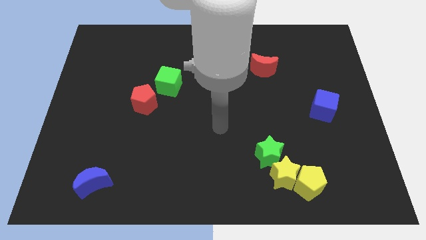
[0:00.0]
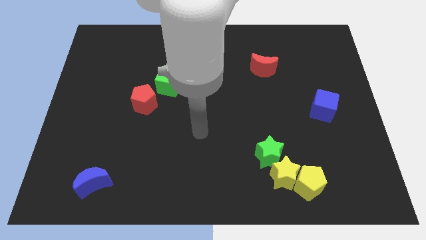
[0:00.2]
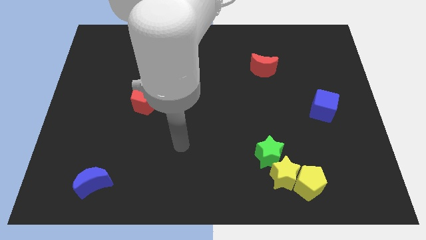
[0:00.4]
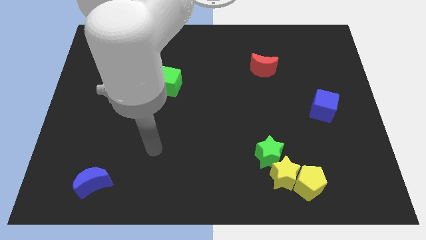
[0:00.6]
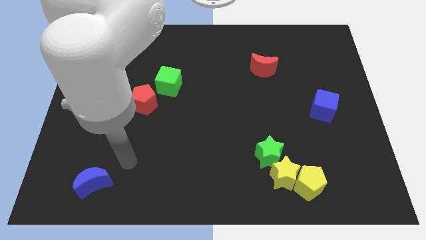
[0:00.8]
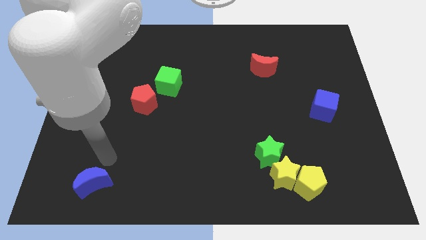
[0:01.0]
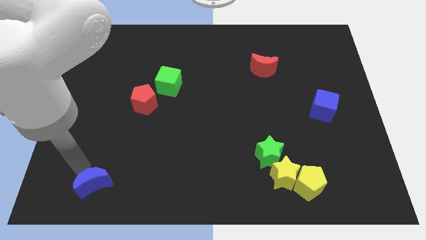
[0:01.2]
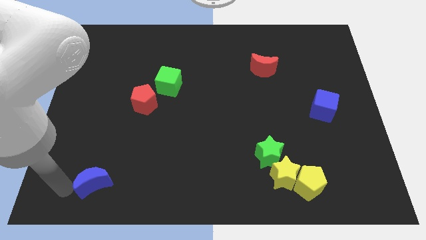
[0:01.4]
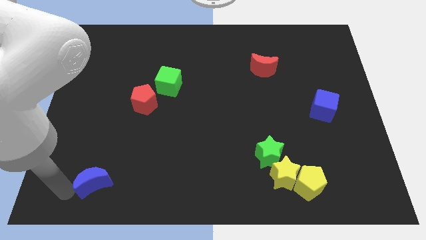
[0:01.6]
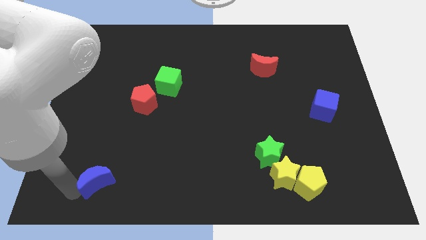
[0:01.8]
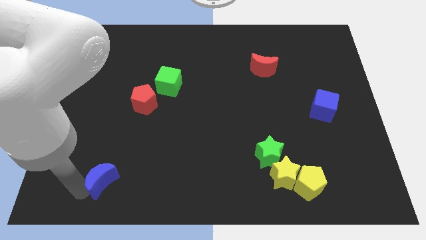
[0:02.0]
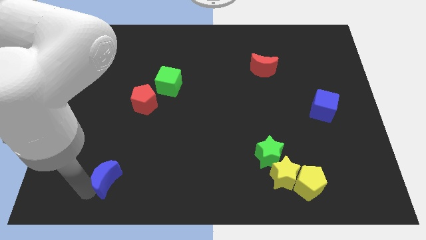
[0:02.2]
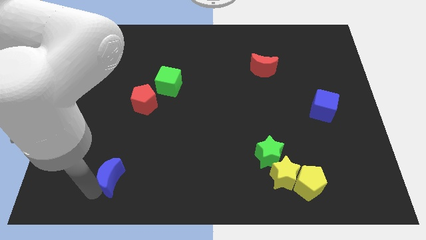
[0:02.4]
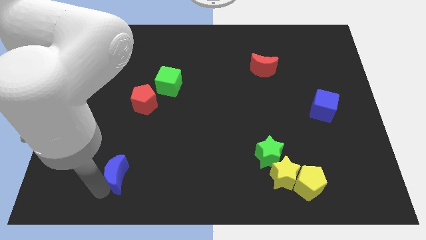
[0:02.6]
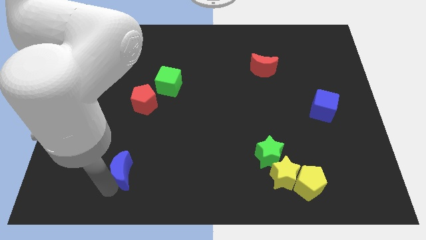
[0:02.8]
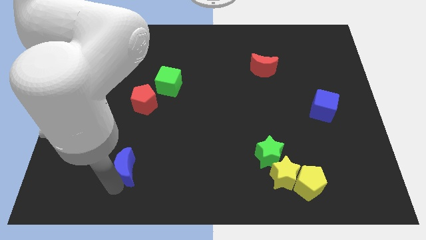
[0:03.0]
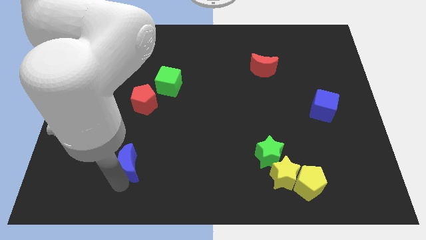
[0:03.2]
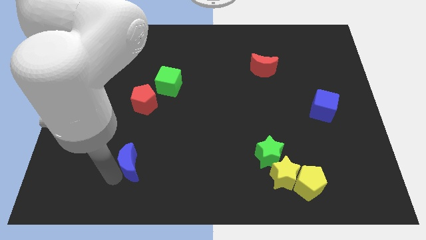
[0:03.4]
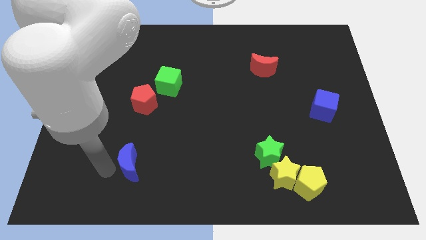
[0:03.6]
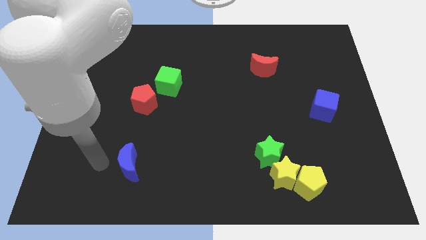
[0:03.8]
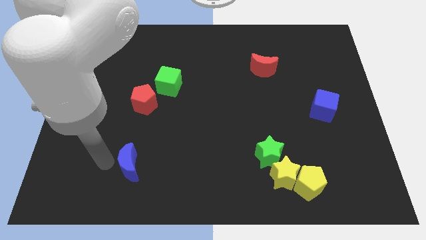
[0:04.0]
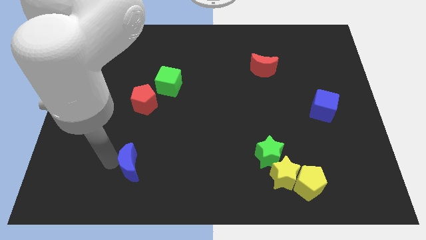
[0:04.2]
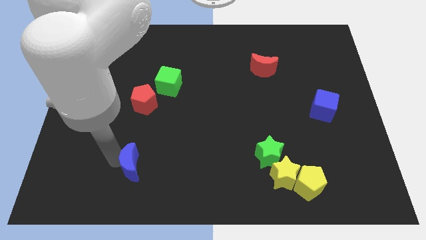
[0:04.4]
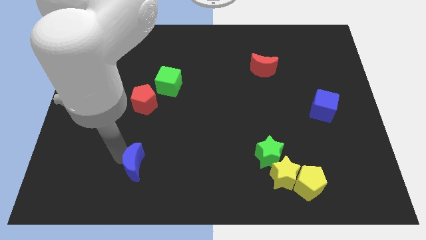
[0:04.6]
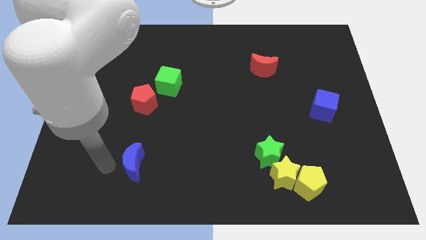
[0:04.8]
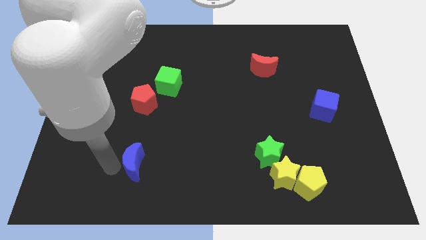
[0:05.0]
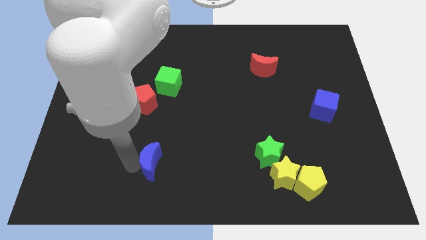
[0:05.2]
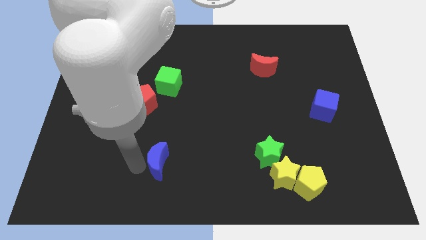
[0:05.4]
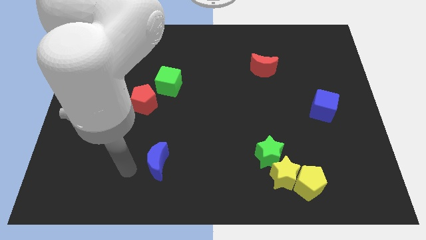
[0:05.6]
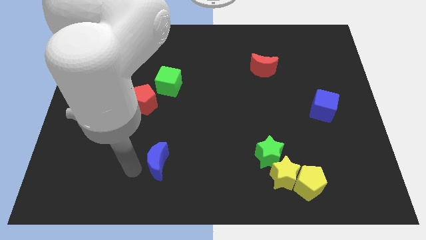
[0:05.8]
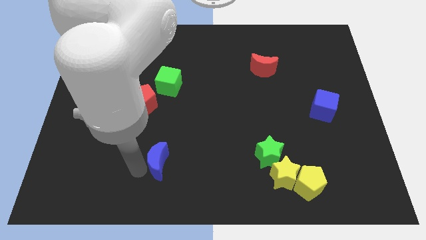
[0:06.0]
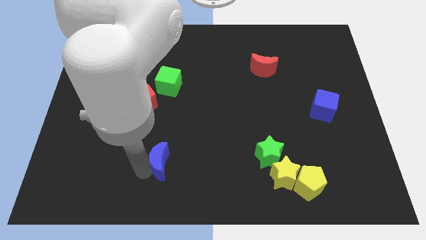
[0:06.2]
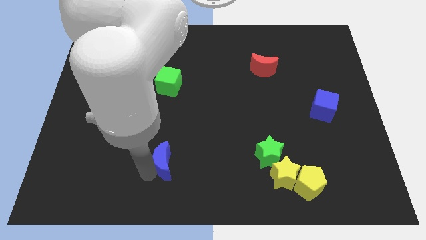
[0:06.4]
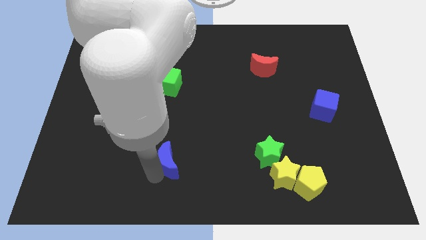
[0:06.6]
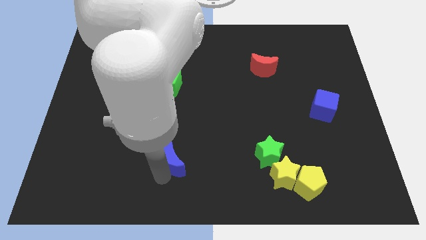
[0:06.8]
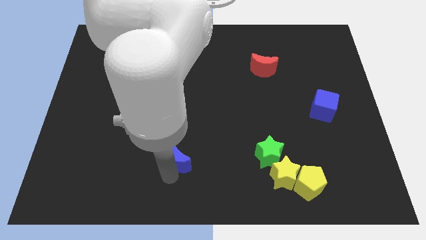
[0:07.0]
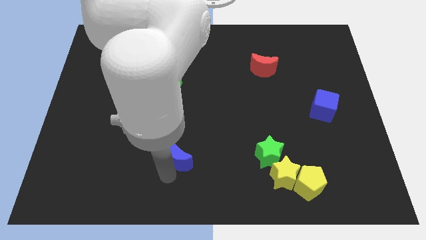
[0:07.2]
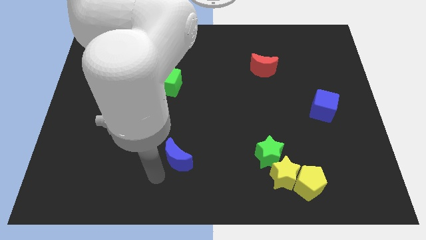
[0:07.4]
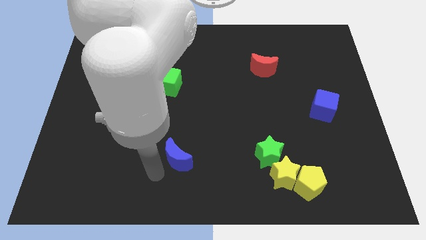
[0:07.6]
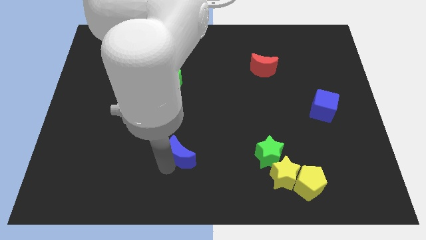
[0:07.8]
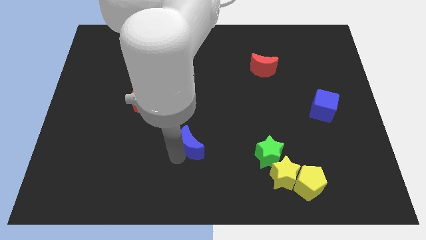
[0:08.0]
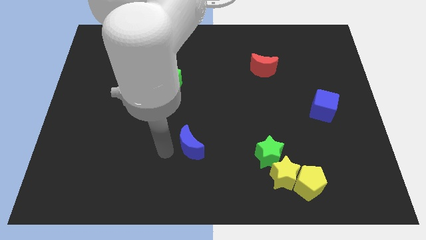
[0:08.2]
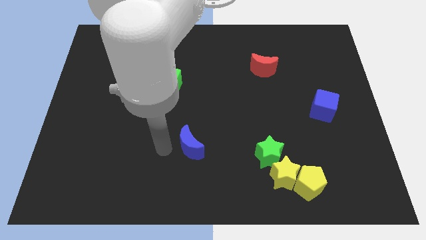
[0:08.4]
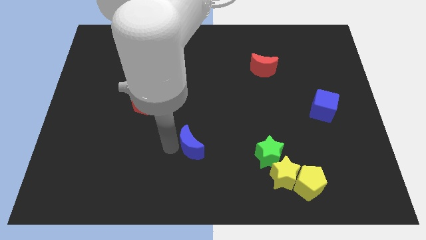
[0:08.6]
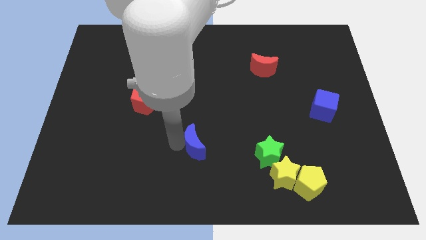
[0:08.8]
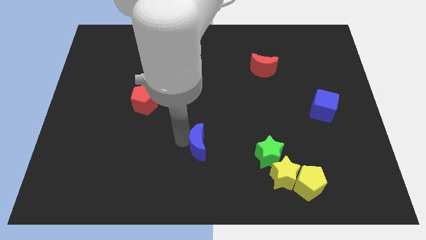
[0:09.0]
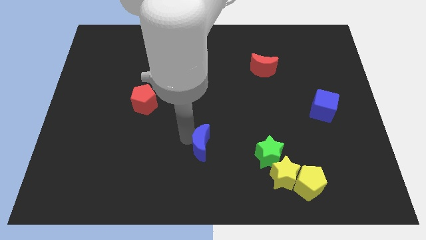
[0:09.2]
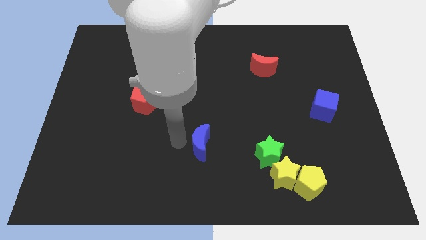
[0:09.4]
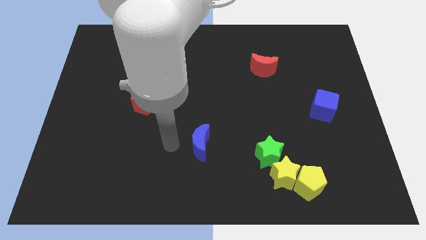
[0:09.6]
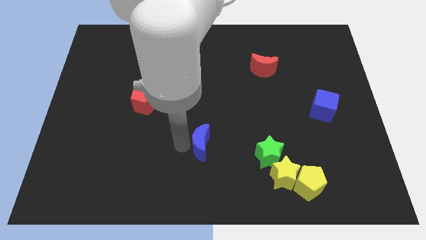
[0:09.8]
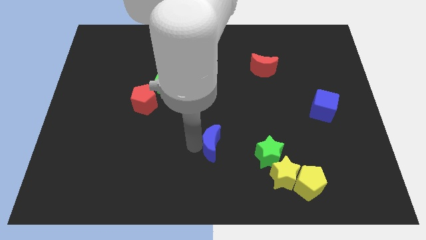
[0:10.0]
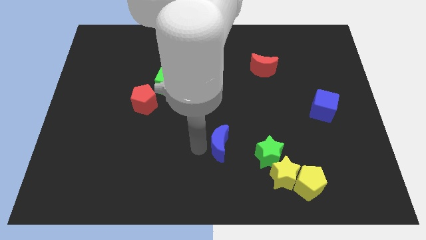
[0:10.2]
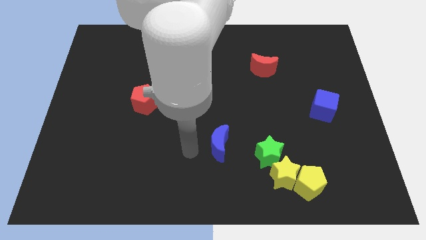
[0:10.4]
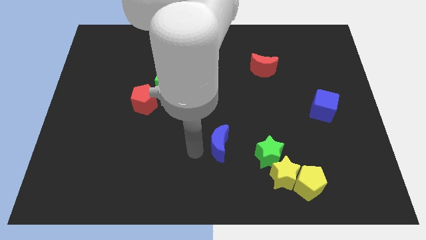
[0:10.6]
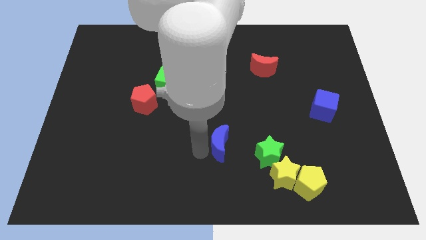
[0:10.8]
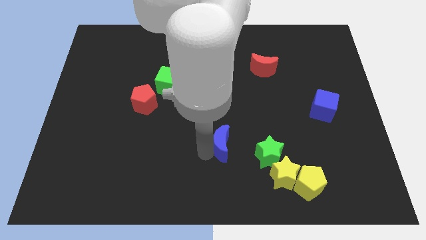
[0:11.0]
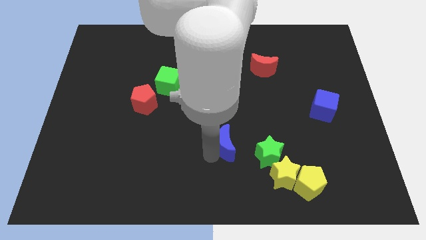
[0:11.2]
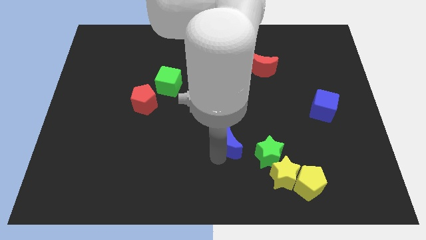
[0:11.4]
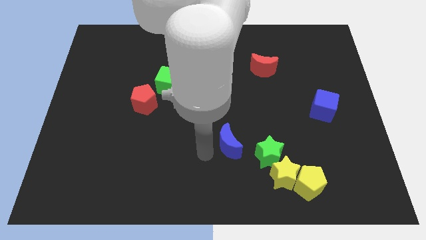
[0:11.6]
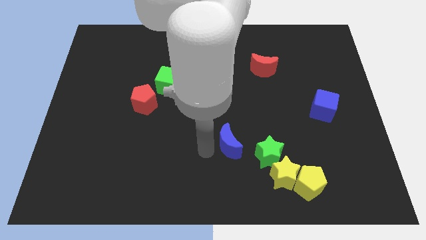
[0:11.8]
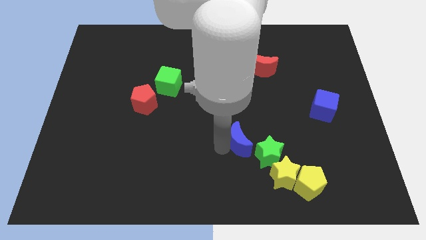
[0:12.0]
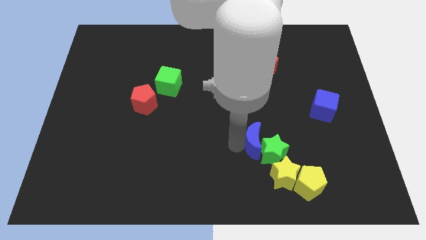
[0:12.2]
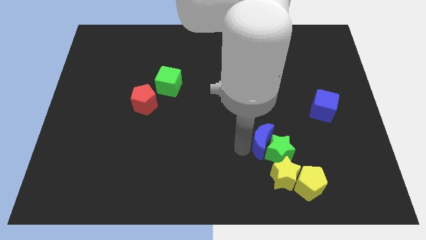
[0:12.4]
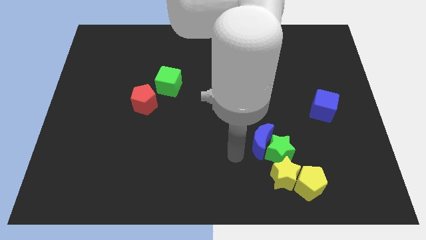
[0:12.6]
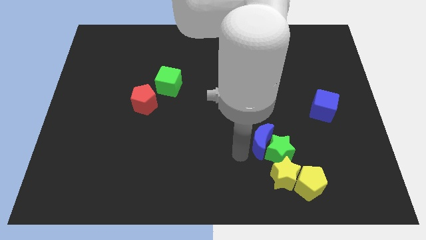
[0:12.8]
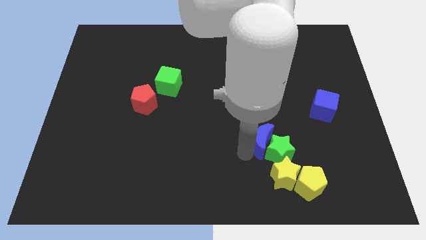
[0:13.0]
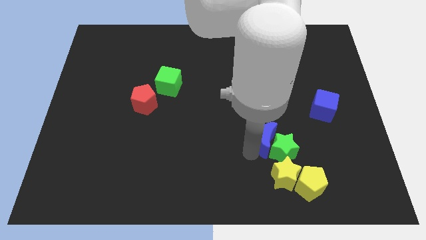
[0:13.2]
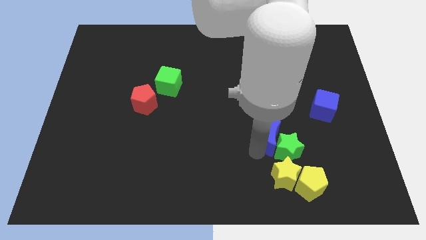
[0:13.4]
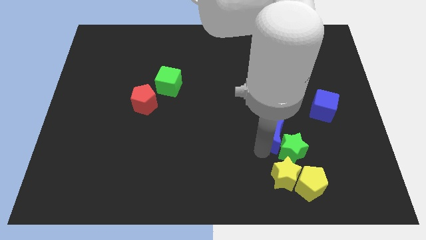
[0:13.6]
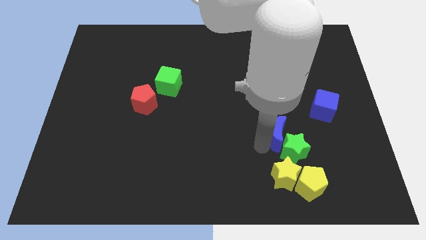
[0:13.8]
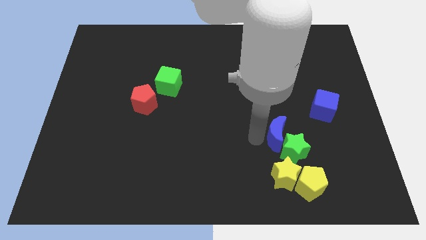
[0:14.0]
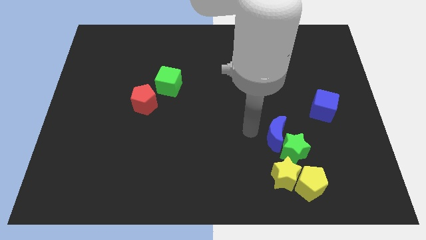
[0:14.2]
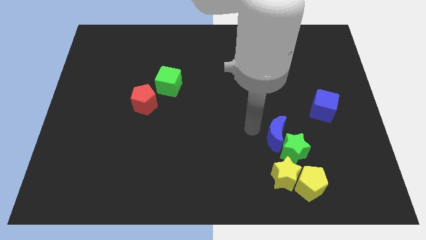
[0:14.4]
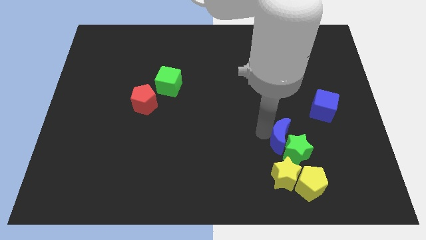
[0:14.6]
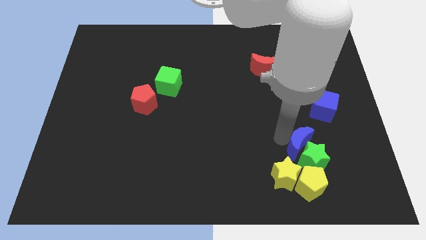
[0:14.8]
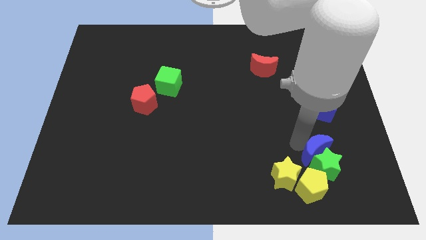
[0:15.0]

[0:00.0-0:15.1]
put the blue moon to the top right of the yellow pentagon
